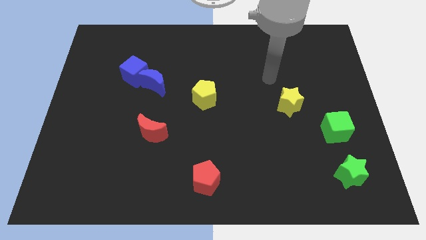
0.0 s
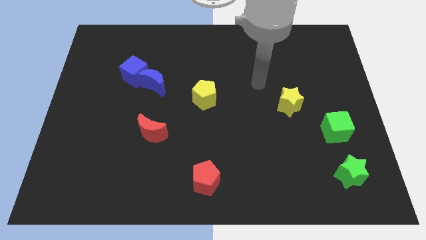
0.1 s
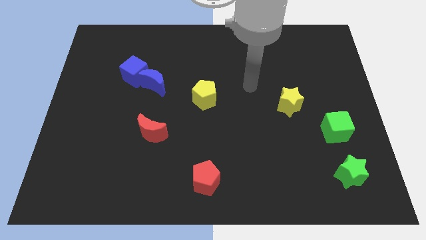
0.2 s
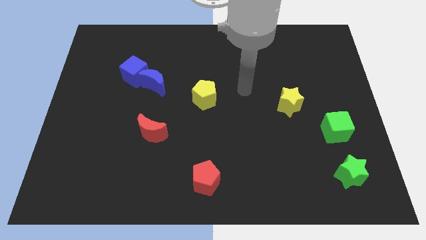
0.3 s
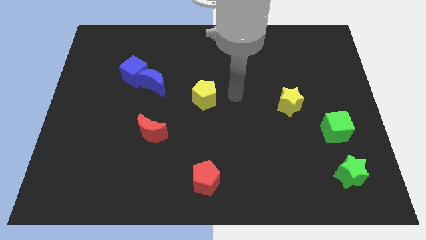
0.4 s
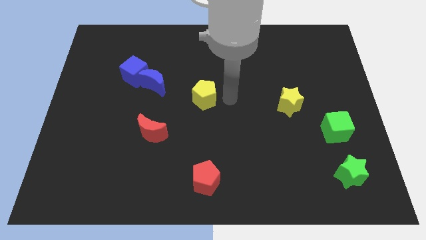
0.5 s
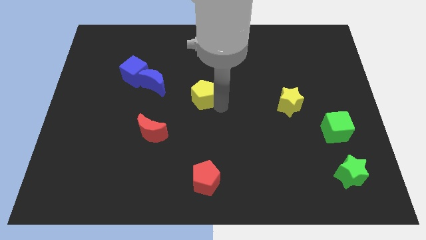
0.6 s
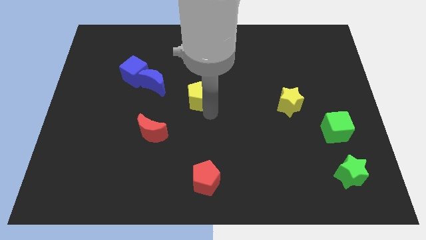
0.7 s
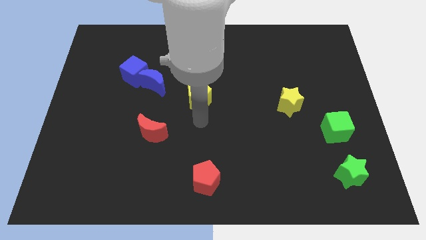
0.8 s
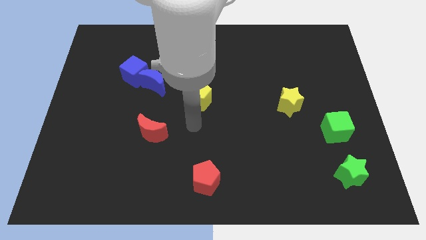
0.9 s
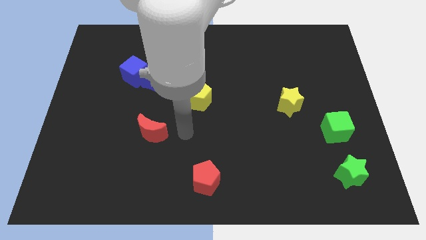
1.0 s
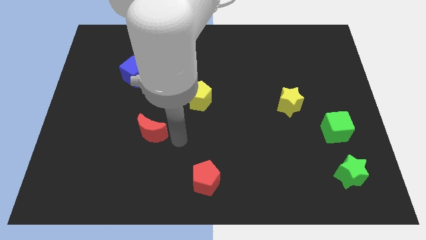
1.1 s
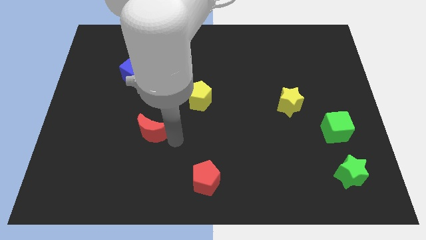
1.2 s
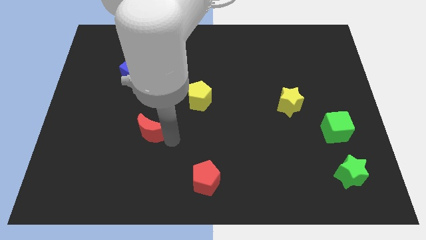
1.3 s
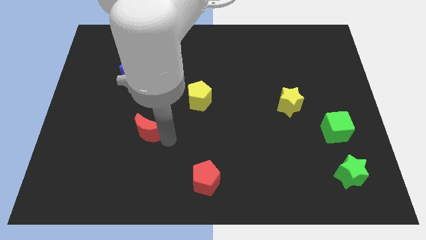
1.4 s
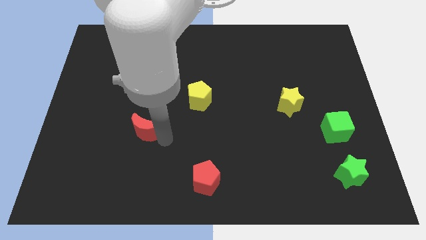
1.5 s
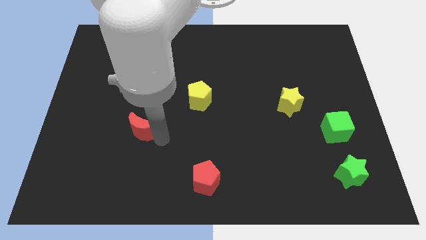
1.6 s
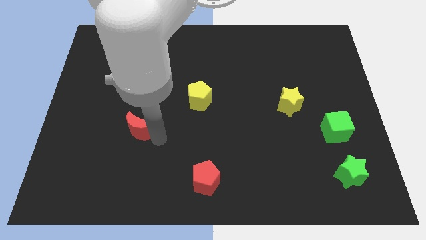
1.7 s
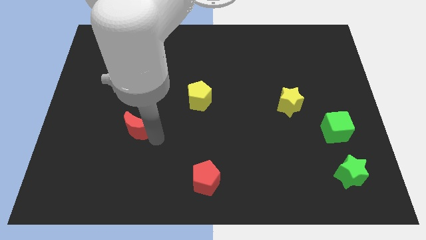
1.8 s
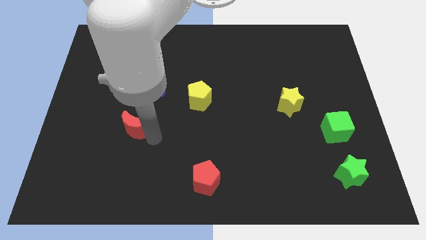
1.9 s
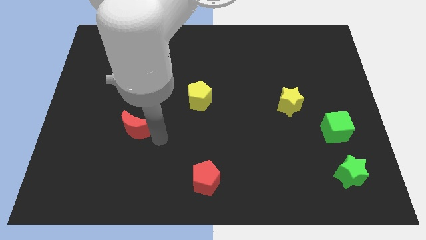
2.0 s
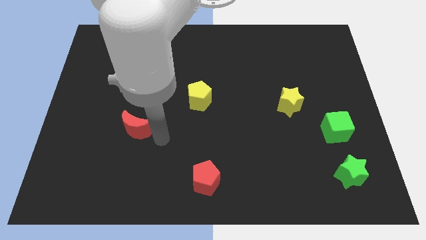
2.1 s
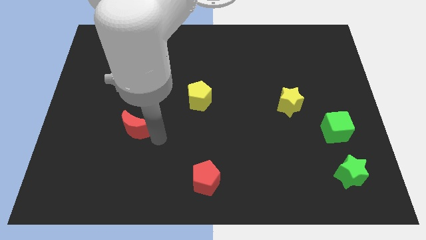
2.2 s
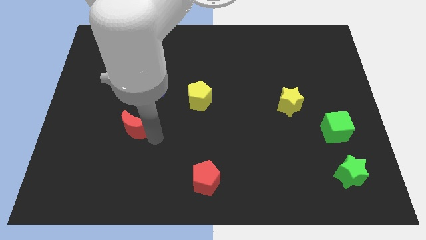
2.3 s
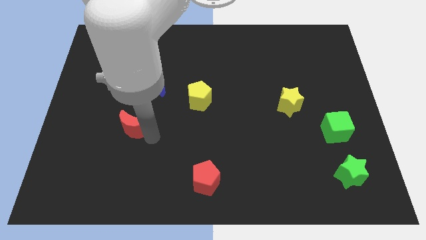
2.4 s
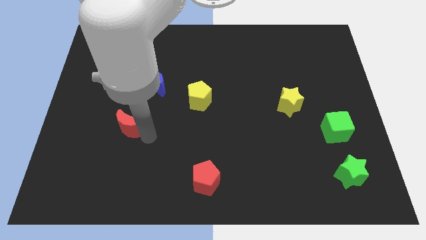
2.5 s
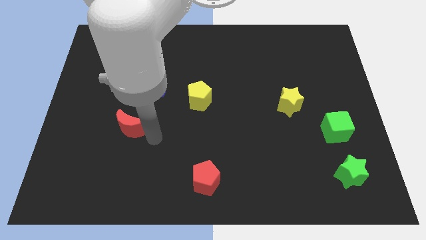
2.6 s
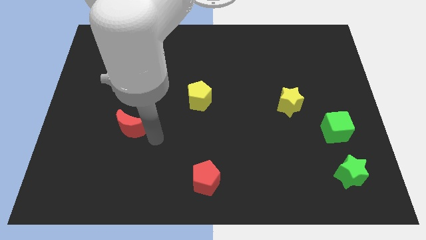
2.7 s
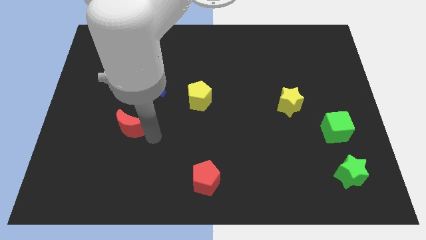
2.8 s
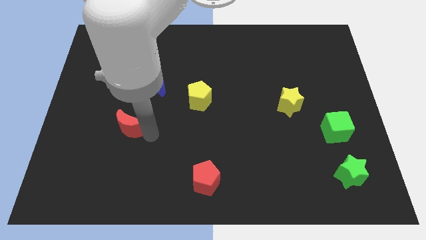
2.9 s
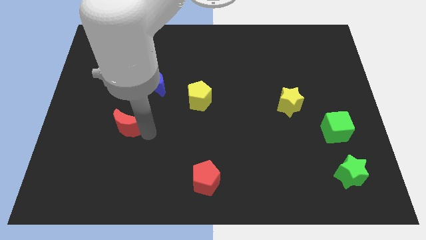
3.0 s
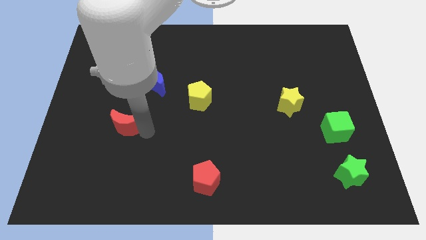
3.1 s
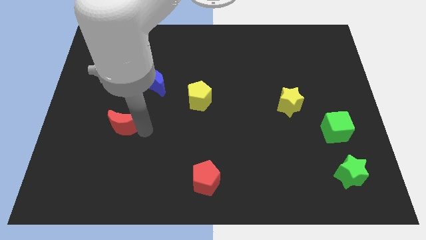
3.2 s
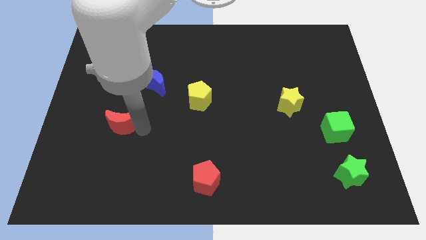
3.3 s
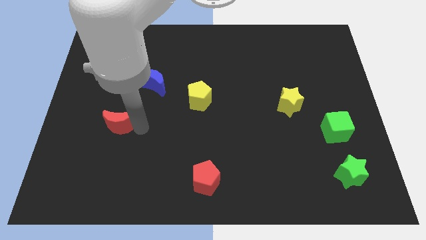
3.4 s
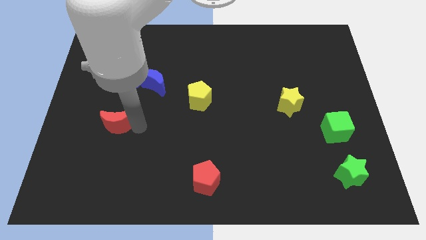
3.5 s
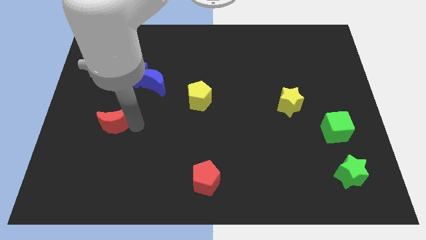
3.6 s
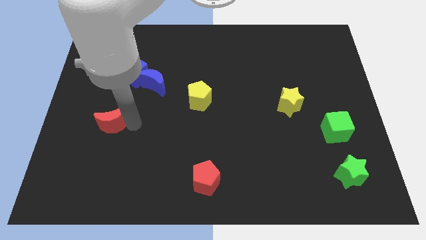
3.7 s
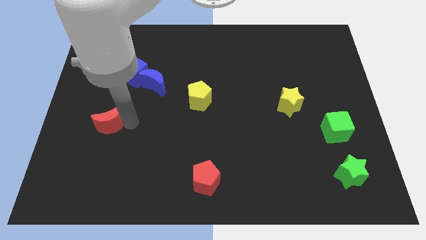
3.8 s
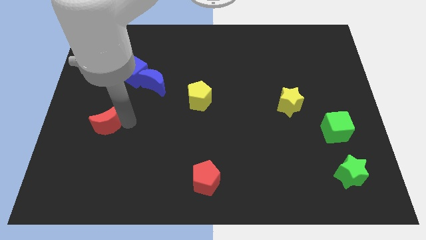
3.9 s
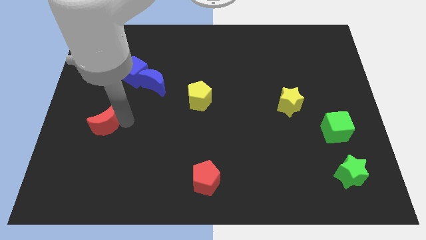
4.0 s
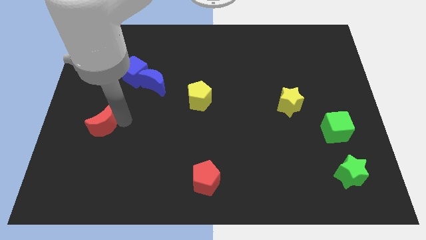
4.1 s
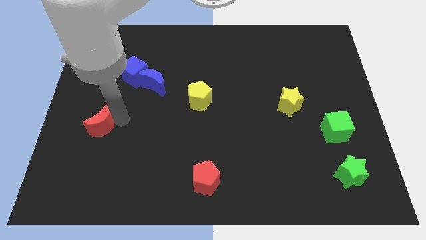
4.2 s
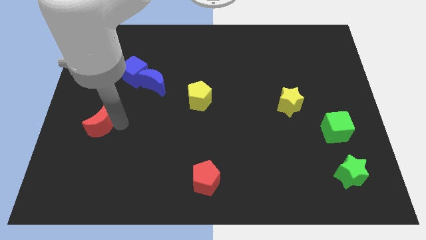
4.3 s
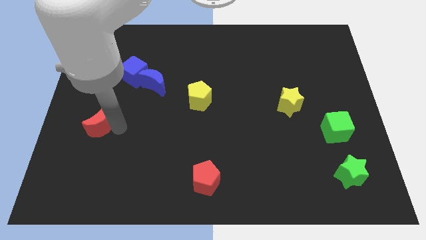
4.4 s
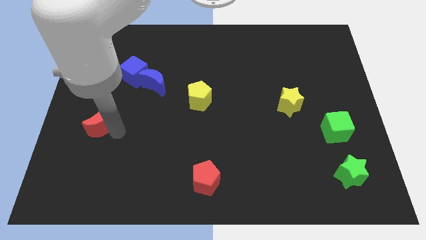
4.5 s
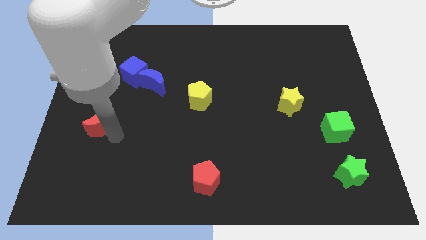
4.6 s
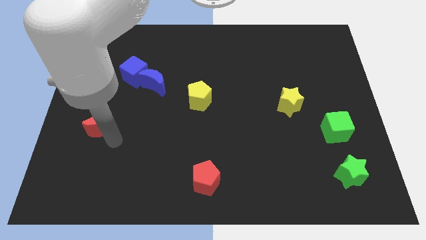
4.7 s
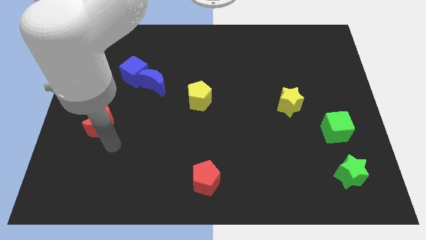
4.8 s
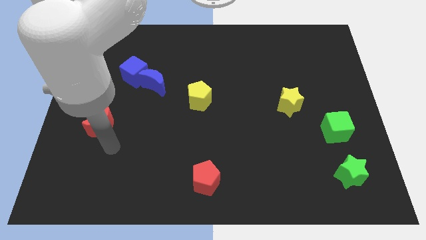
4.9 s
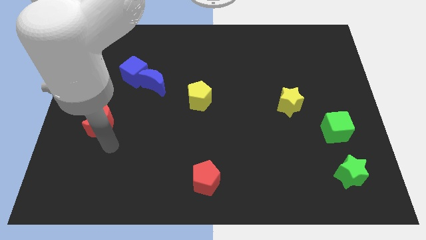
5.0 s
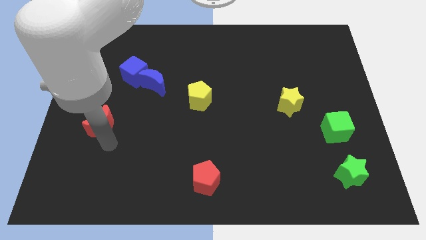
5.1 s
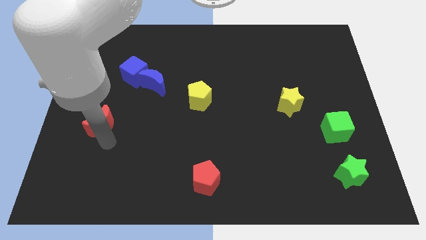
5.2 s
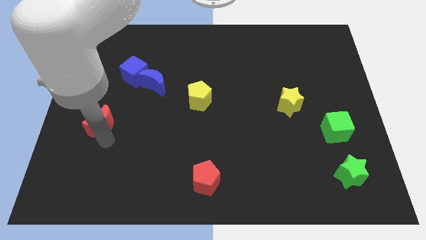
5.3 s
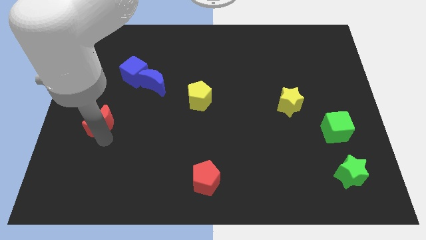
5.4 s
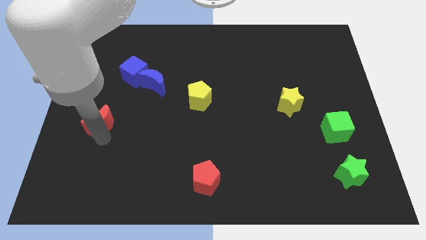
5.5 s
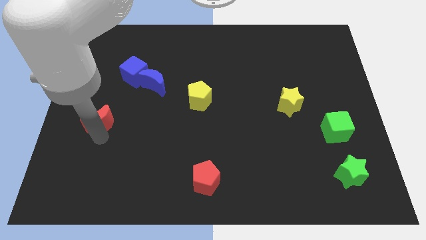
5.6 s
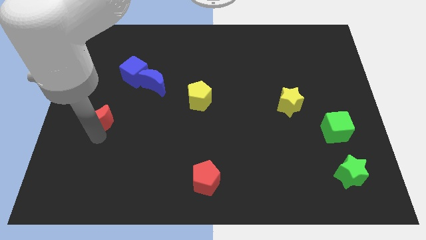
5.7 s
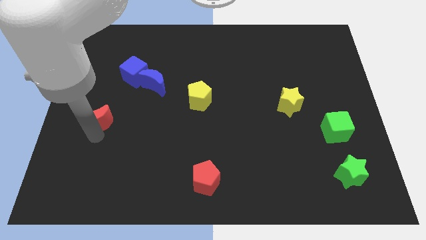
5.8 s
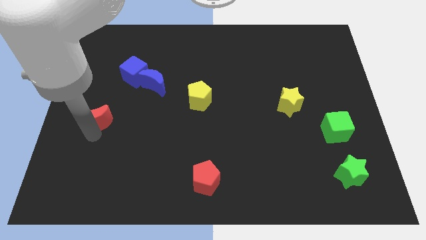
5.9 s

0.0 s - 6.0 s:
put the red moon to the left side of the board
